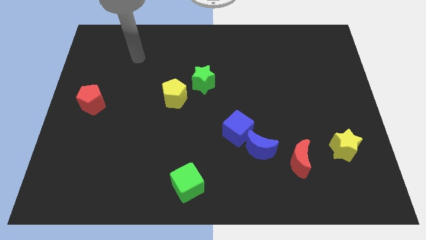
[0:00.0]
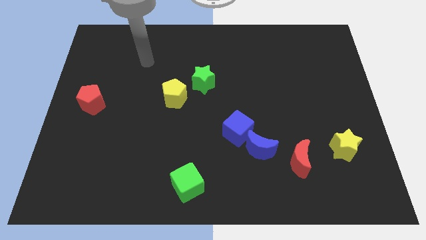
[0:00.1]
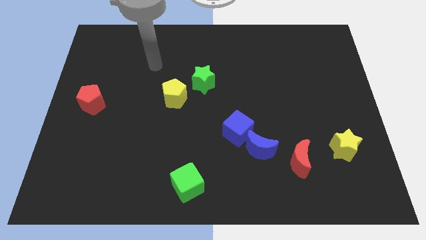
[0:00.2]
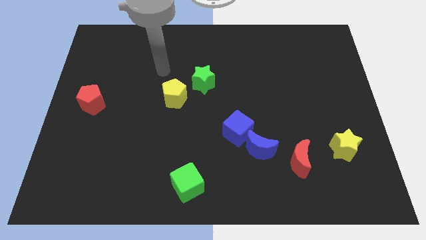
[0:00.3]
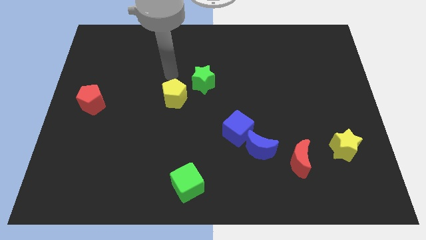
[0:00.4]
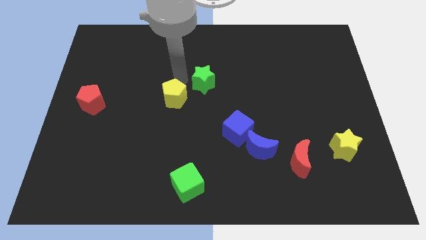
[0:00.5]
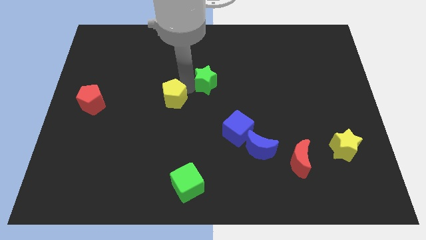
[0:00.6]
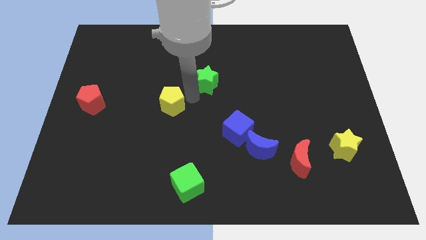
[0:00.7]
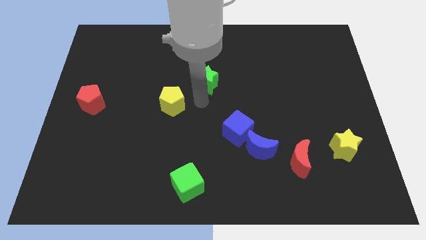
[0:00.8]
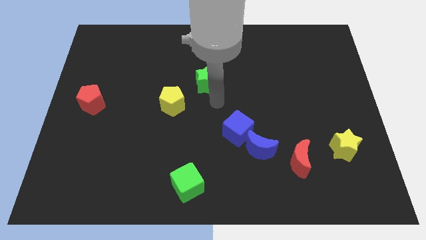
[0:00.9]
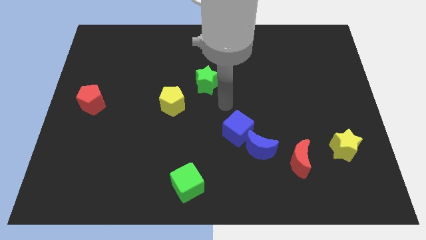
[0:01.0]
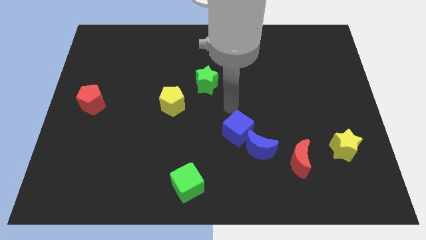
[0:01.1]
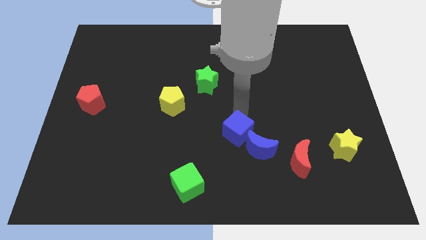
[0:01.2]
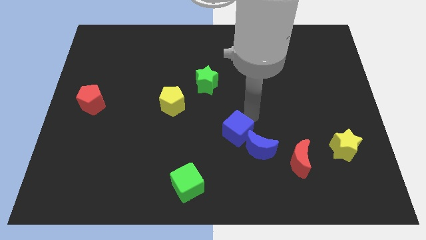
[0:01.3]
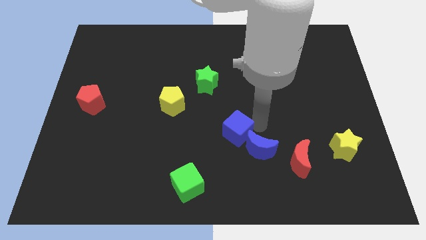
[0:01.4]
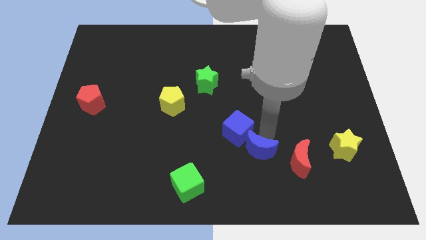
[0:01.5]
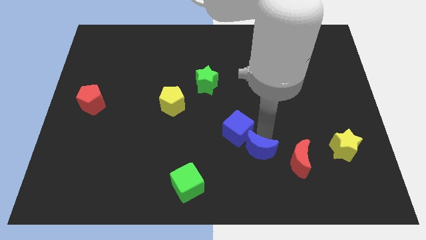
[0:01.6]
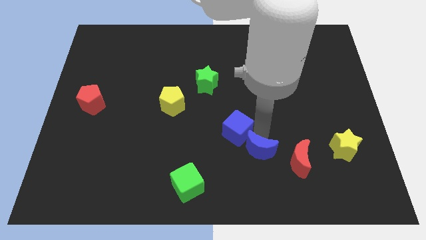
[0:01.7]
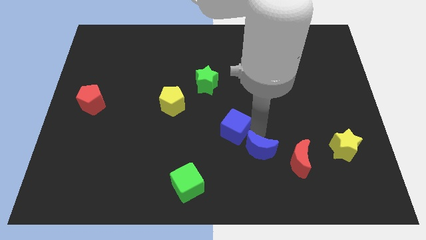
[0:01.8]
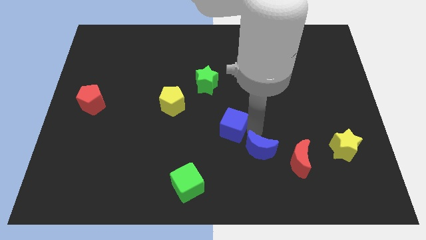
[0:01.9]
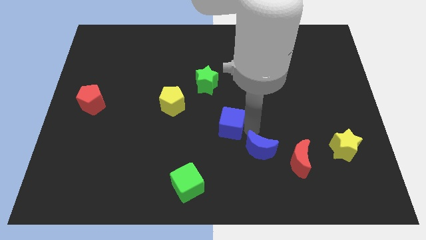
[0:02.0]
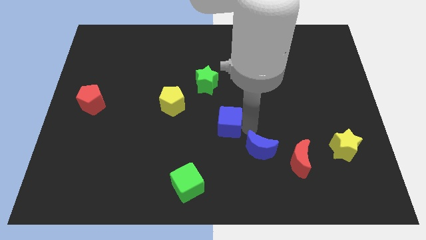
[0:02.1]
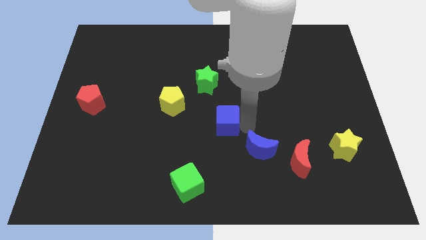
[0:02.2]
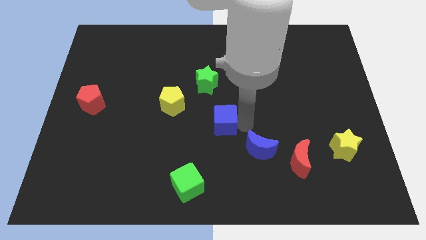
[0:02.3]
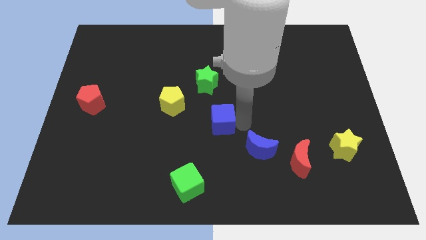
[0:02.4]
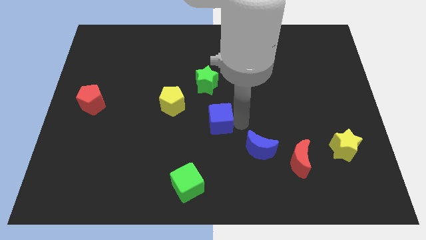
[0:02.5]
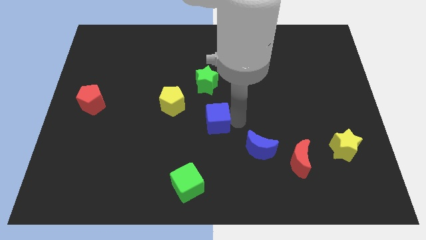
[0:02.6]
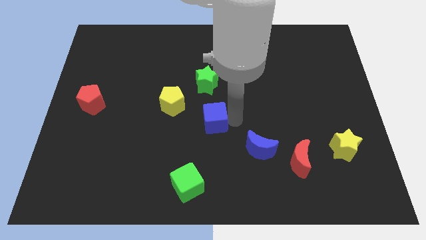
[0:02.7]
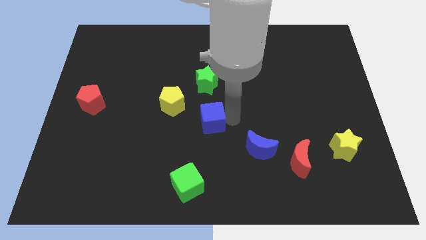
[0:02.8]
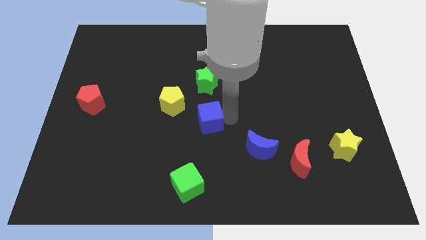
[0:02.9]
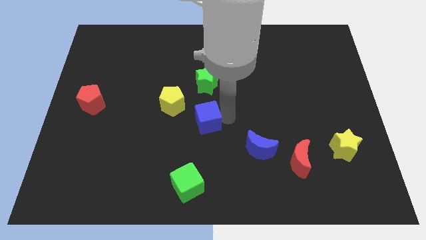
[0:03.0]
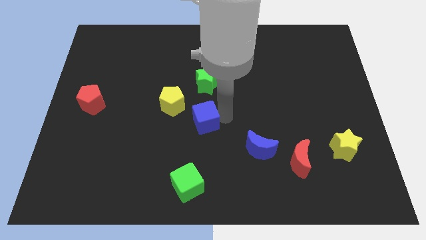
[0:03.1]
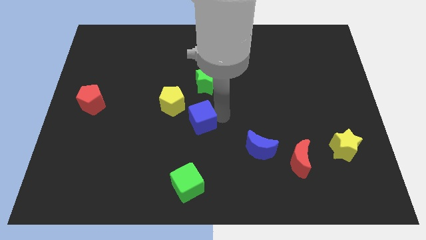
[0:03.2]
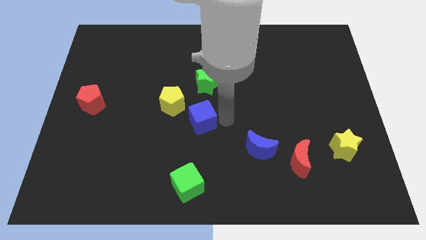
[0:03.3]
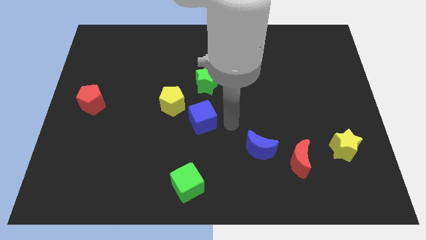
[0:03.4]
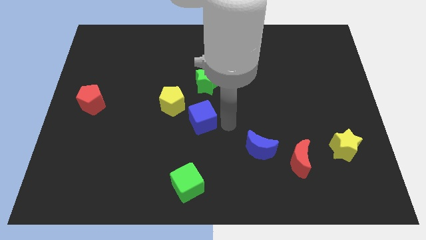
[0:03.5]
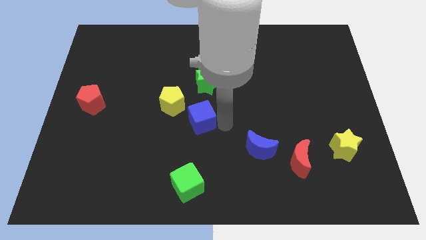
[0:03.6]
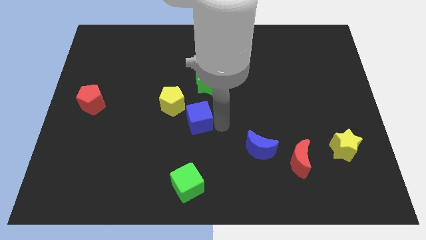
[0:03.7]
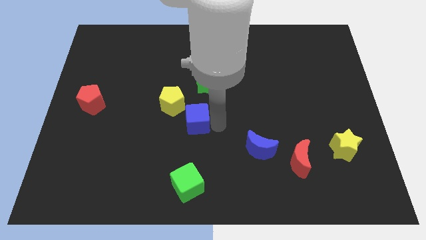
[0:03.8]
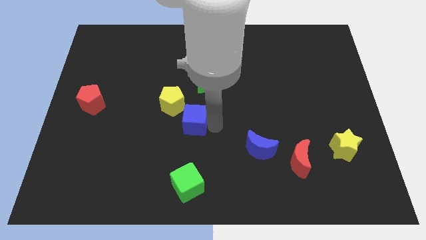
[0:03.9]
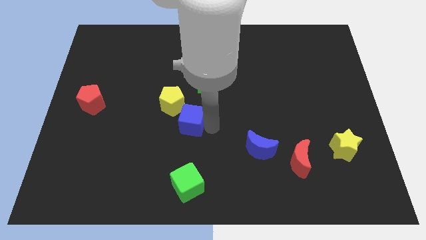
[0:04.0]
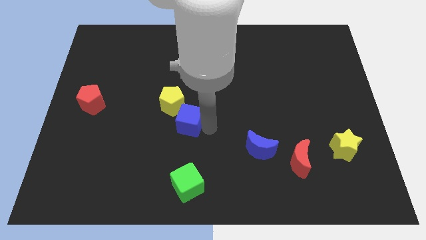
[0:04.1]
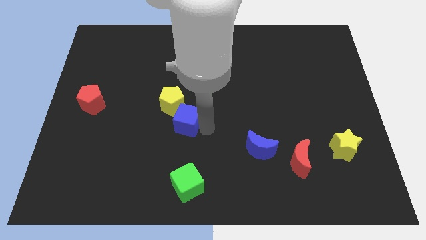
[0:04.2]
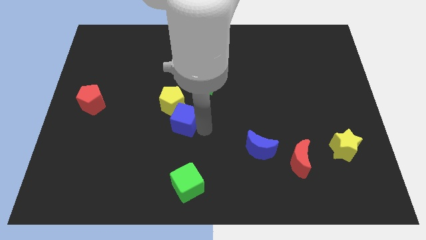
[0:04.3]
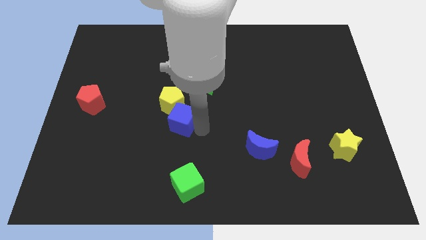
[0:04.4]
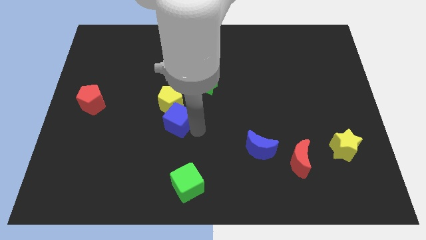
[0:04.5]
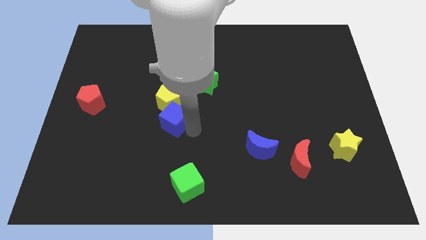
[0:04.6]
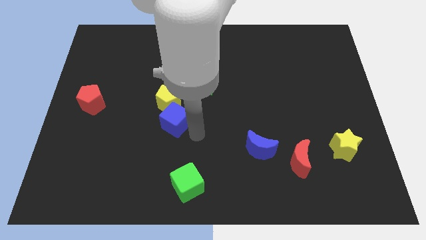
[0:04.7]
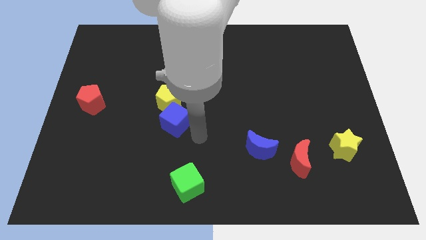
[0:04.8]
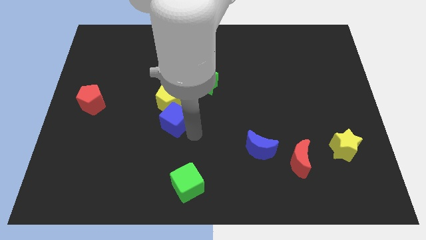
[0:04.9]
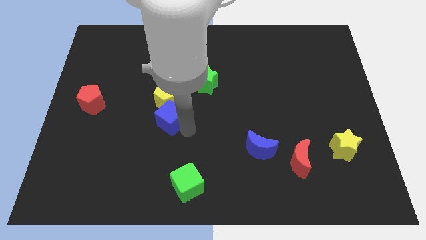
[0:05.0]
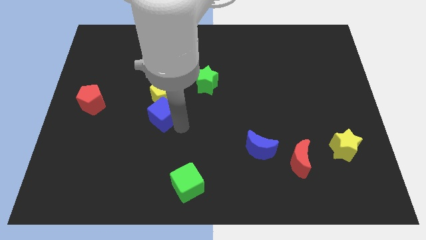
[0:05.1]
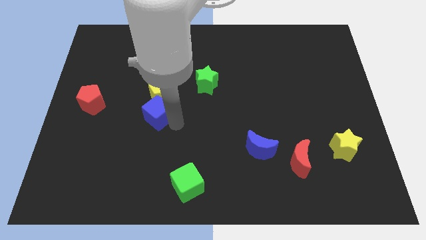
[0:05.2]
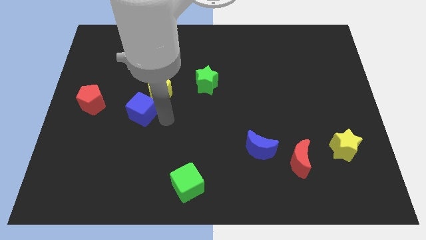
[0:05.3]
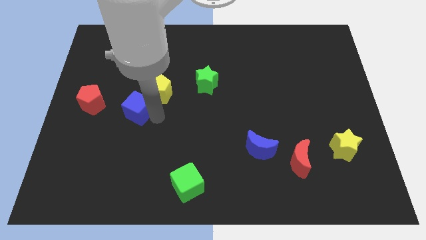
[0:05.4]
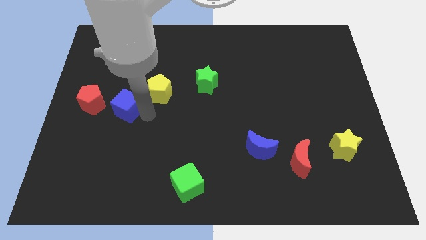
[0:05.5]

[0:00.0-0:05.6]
move the blue cube to the left of the yellow pentagon

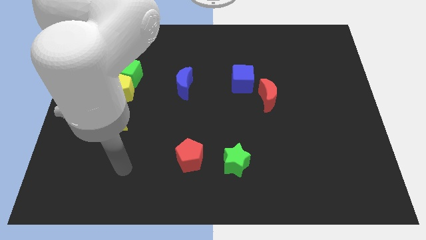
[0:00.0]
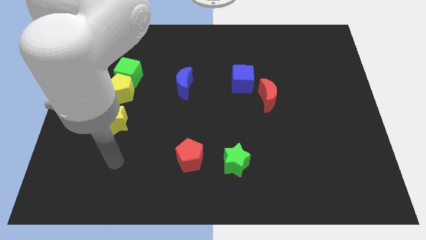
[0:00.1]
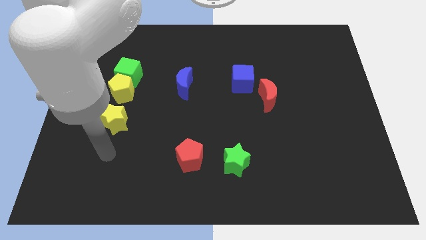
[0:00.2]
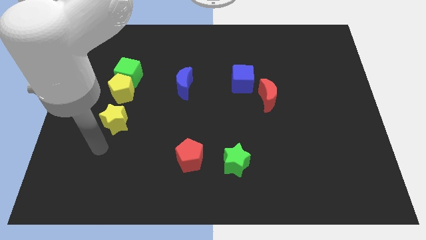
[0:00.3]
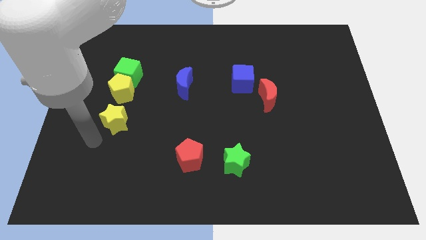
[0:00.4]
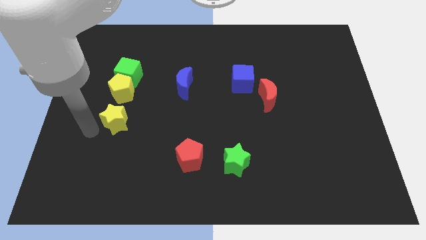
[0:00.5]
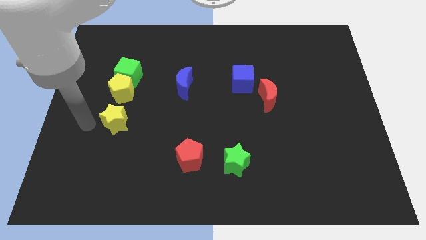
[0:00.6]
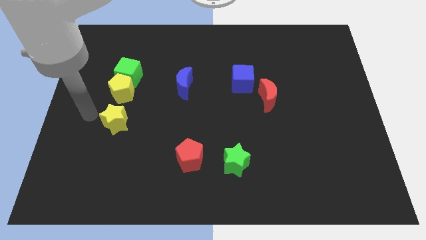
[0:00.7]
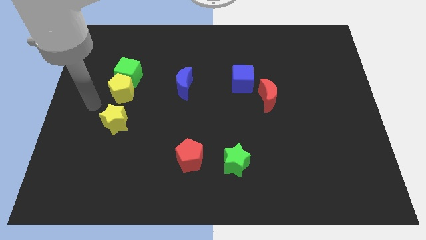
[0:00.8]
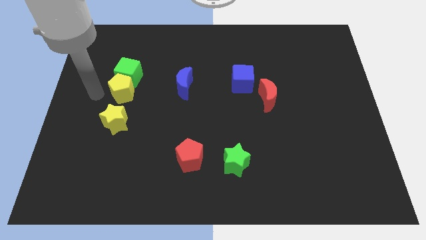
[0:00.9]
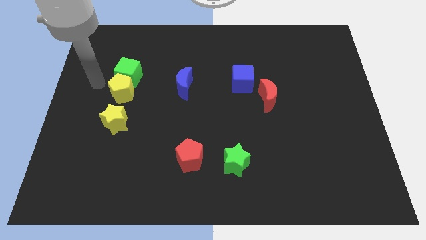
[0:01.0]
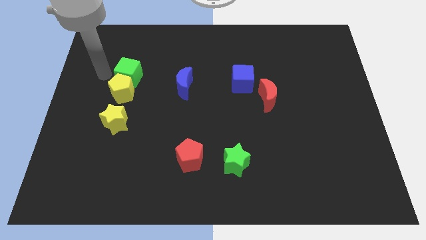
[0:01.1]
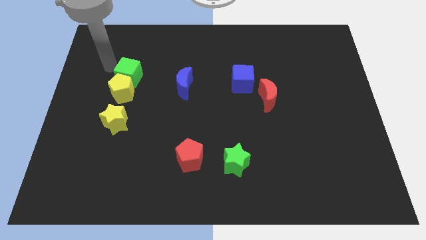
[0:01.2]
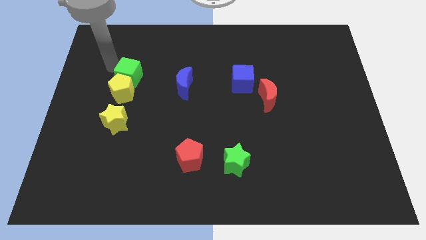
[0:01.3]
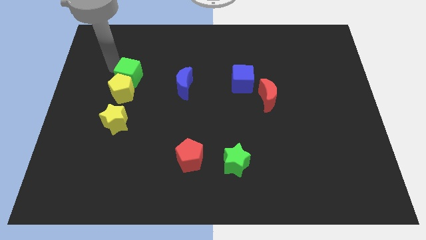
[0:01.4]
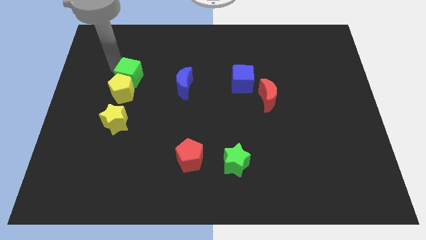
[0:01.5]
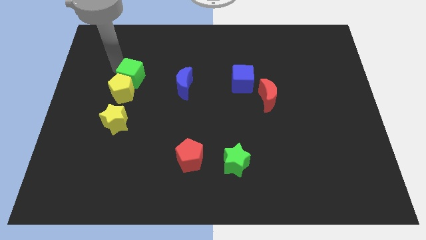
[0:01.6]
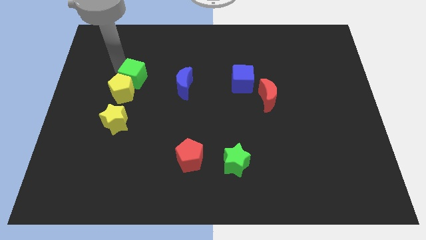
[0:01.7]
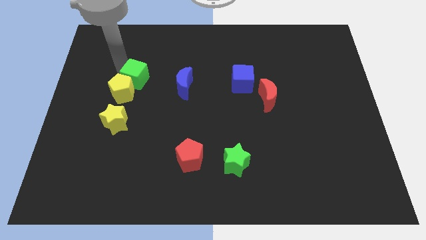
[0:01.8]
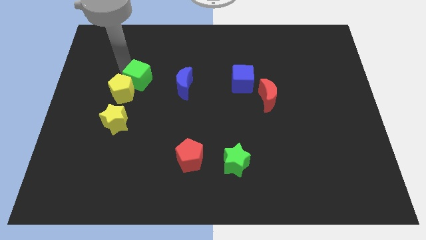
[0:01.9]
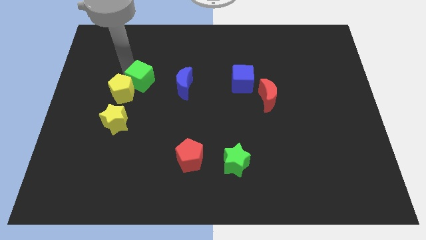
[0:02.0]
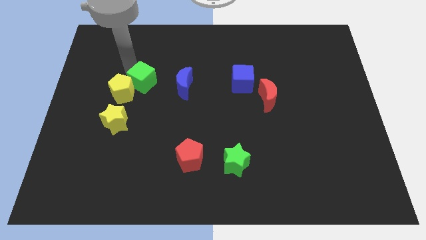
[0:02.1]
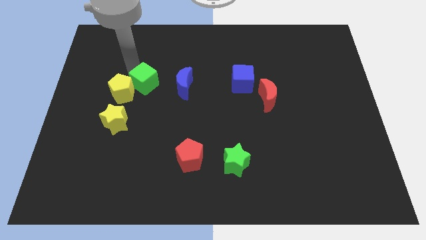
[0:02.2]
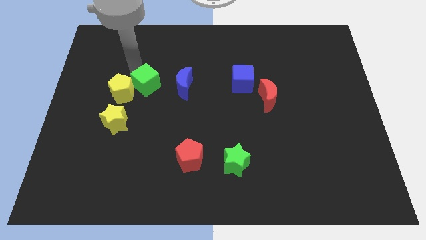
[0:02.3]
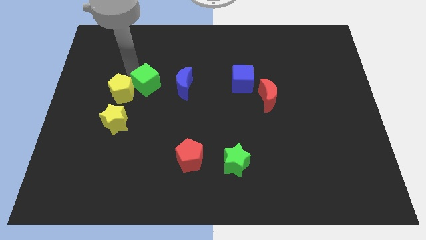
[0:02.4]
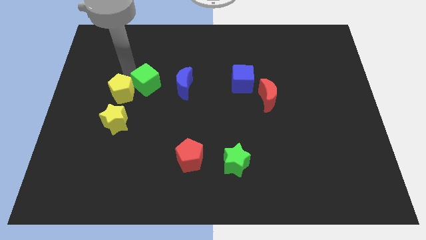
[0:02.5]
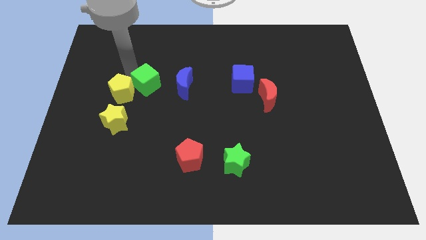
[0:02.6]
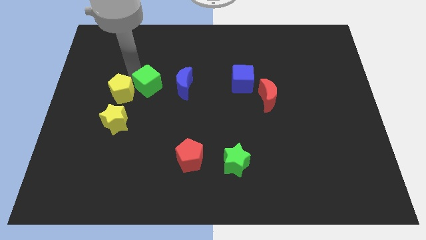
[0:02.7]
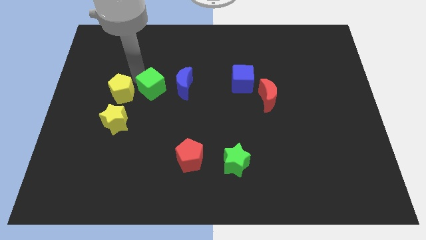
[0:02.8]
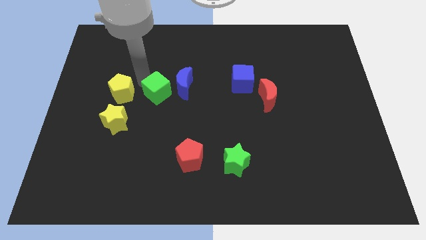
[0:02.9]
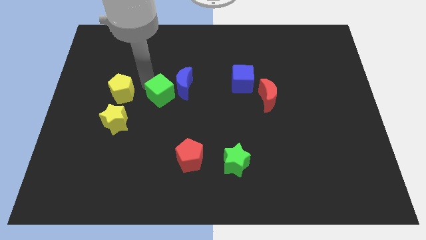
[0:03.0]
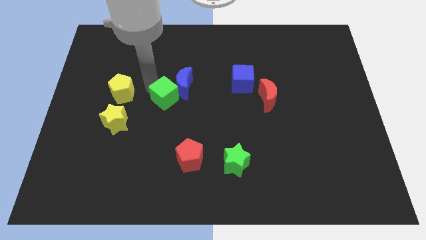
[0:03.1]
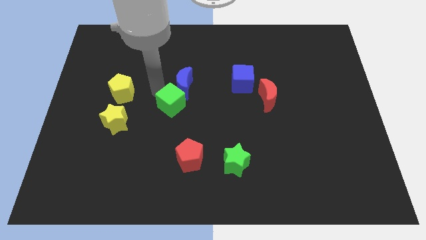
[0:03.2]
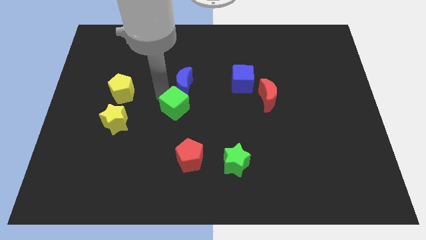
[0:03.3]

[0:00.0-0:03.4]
slide the green cube above the red pentagon
